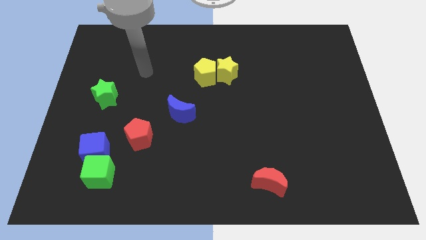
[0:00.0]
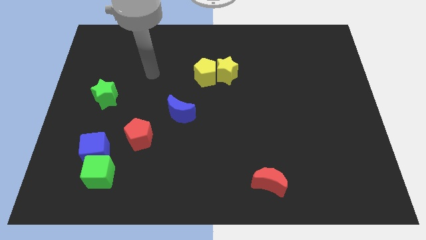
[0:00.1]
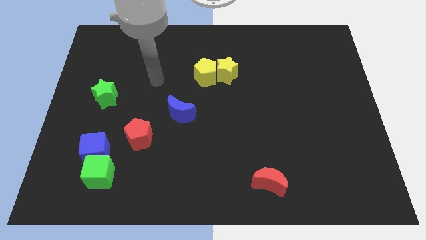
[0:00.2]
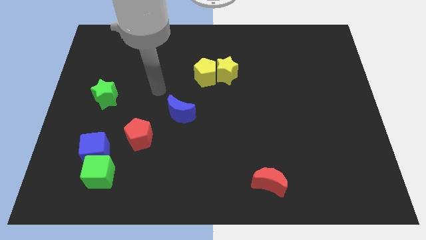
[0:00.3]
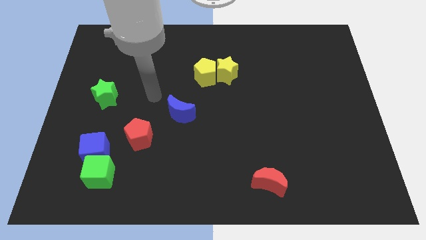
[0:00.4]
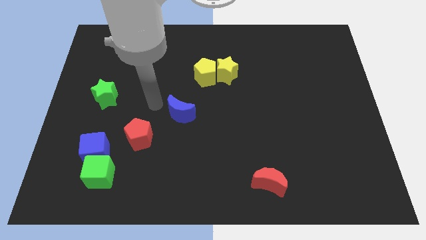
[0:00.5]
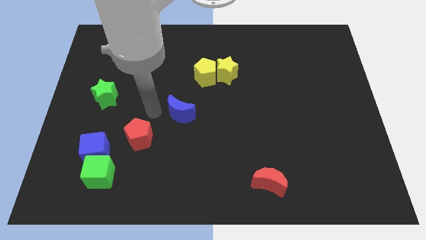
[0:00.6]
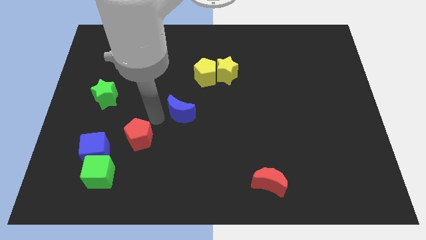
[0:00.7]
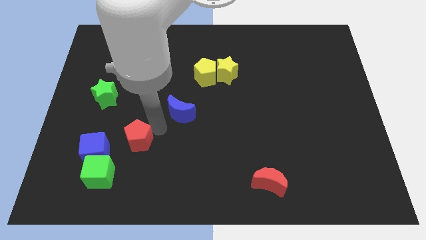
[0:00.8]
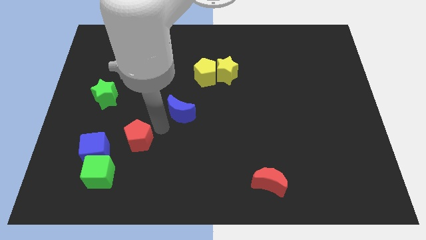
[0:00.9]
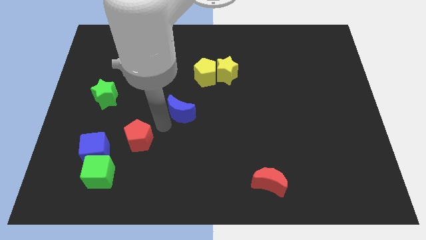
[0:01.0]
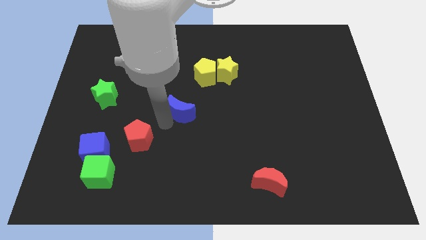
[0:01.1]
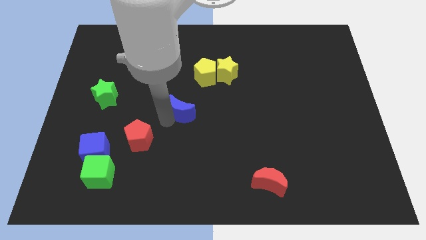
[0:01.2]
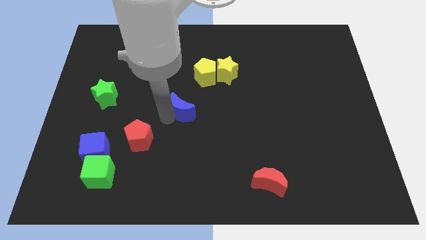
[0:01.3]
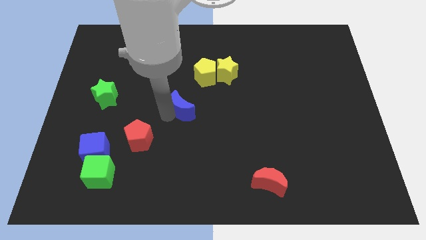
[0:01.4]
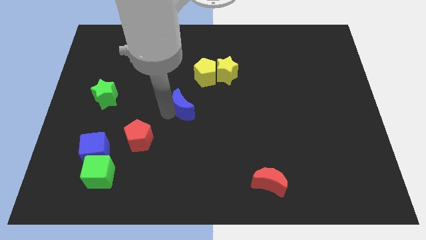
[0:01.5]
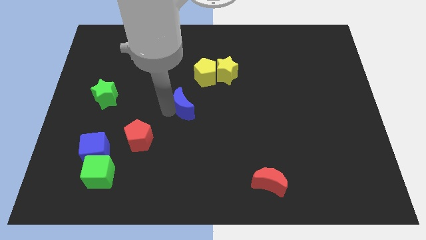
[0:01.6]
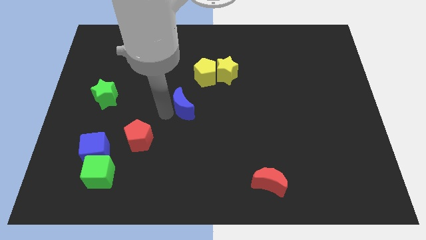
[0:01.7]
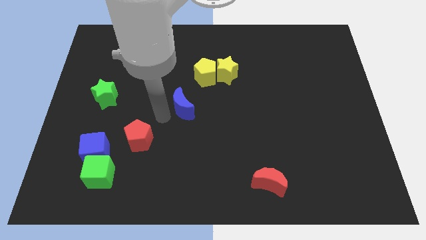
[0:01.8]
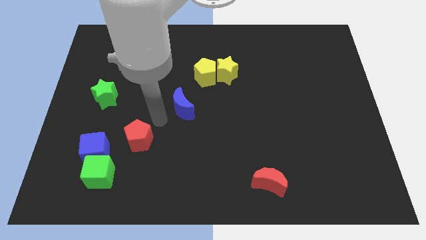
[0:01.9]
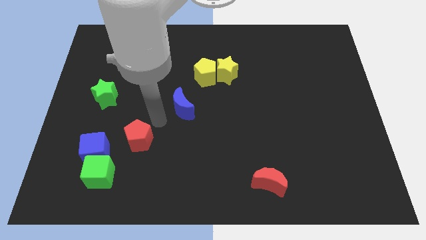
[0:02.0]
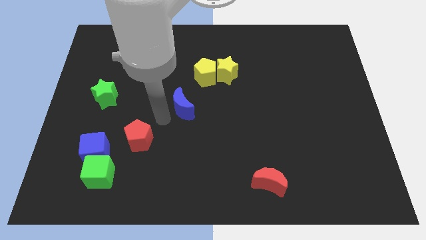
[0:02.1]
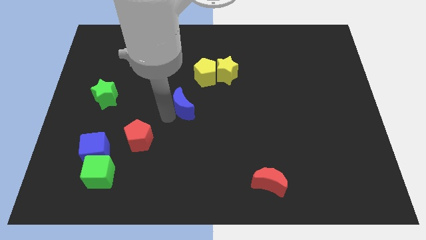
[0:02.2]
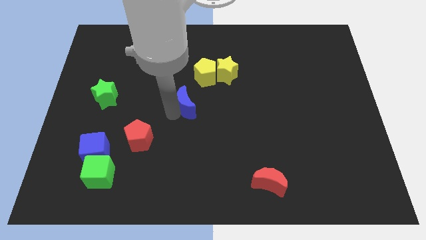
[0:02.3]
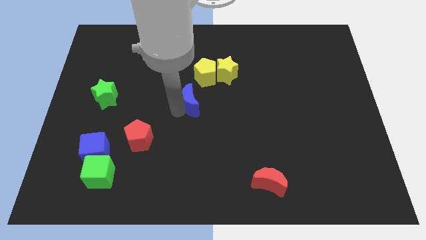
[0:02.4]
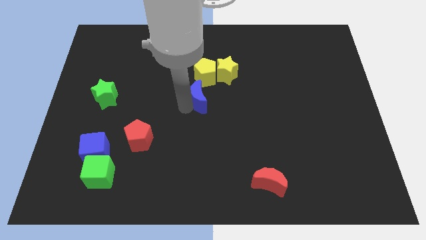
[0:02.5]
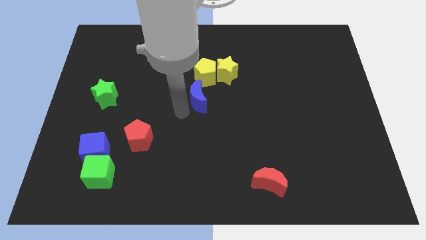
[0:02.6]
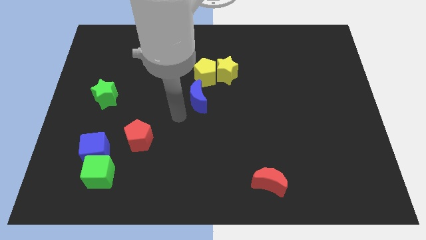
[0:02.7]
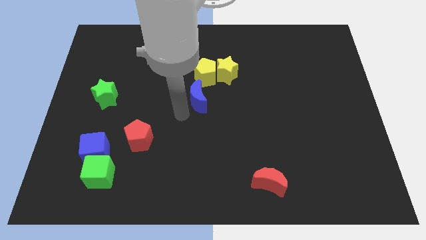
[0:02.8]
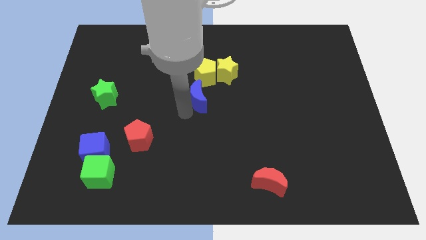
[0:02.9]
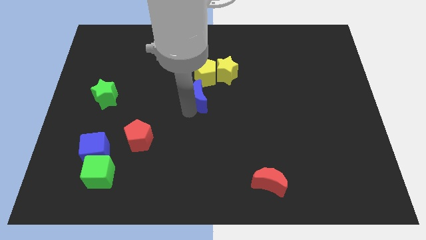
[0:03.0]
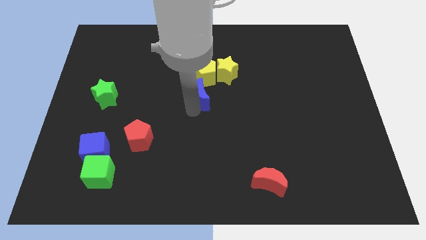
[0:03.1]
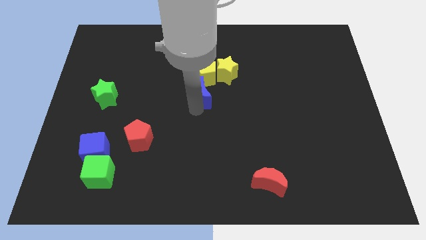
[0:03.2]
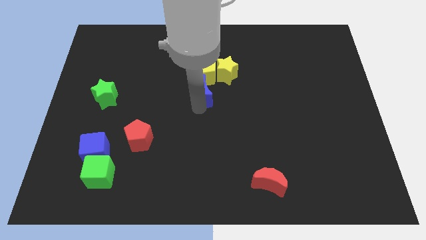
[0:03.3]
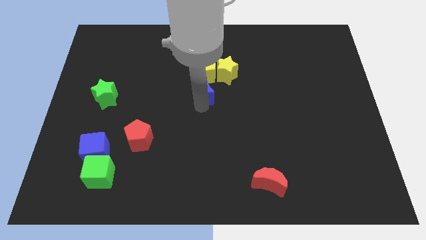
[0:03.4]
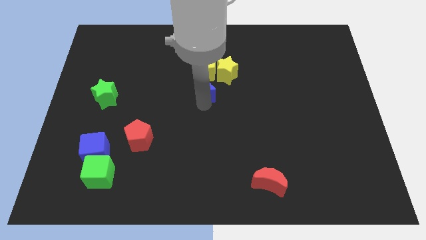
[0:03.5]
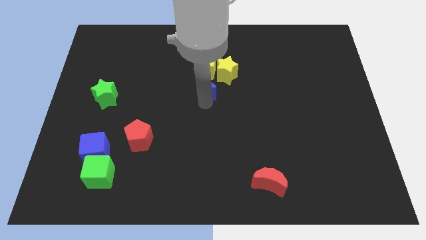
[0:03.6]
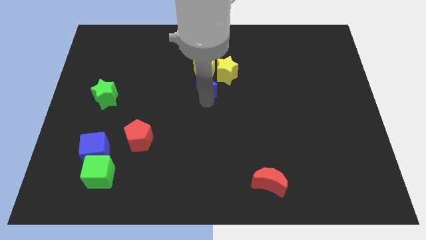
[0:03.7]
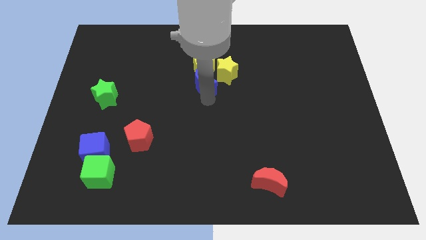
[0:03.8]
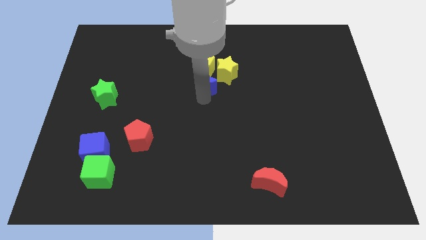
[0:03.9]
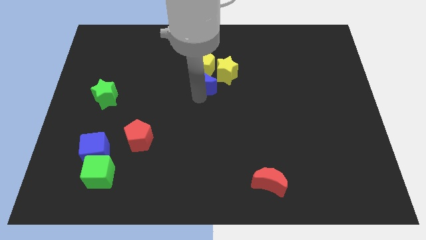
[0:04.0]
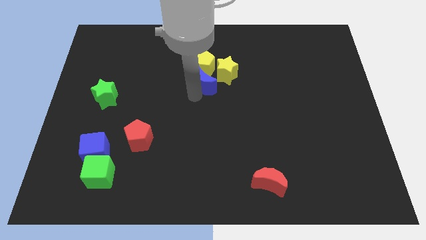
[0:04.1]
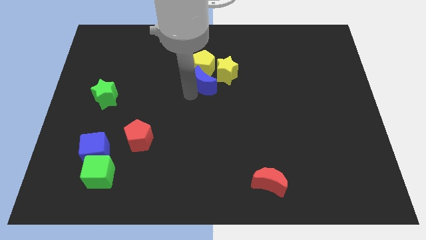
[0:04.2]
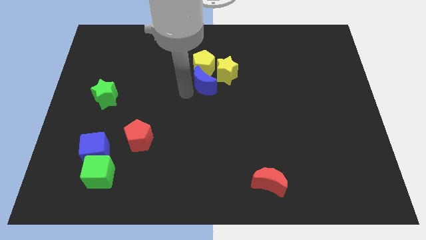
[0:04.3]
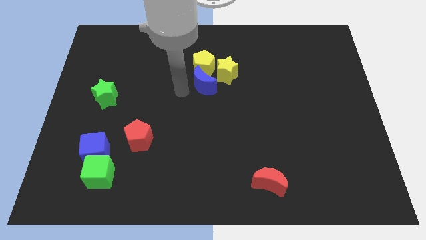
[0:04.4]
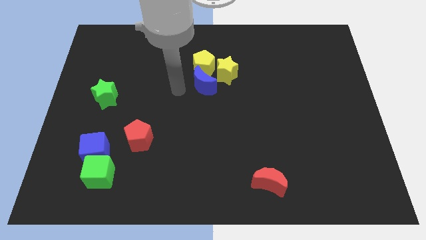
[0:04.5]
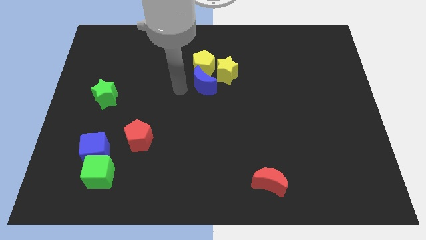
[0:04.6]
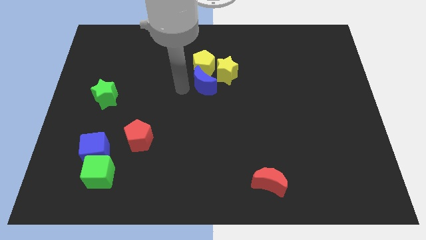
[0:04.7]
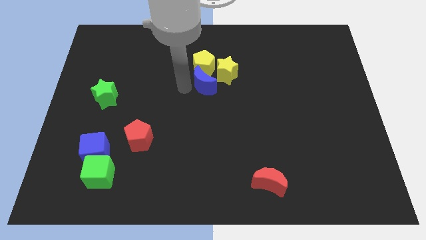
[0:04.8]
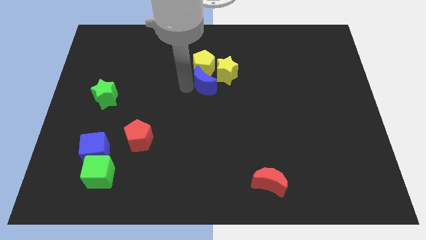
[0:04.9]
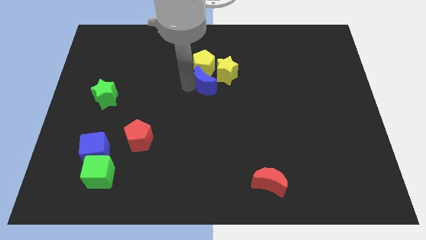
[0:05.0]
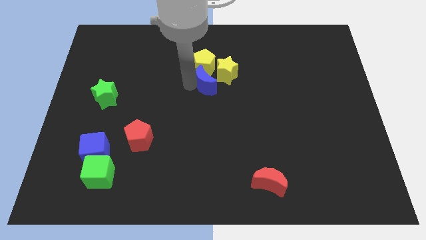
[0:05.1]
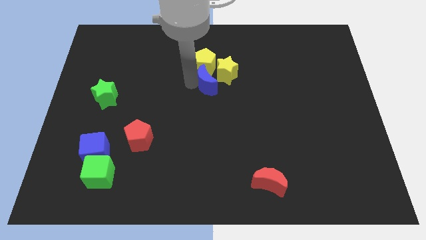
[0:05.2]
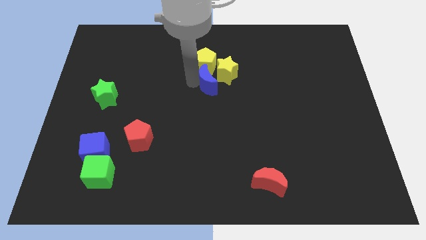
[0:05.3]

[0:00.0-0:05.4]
slide the blue moon towards the yellow star

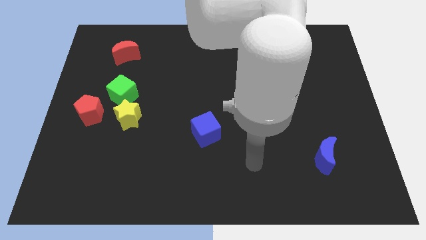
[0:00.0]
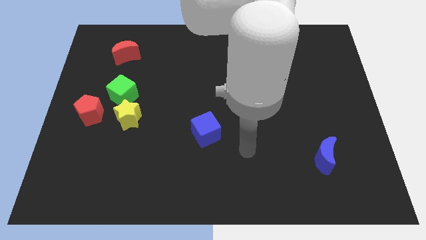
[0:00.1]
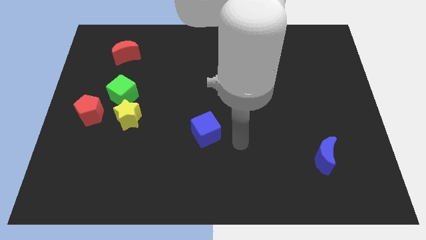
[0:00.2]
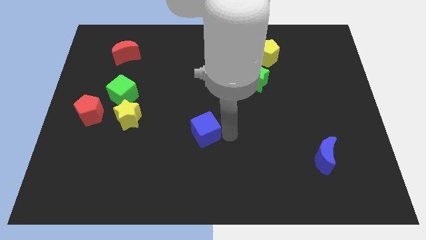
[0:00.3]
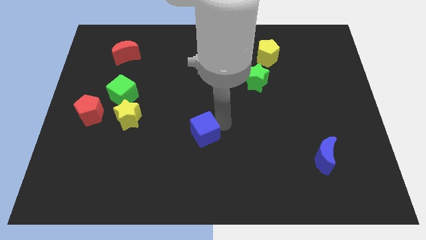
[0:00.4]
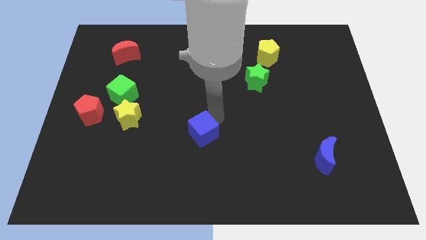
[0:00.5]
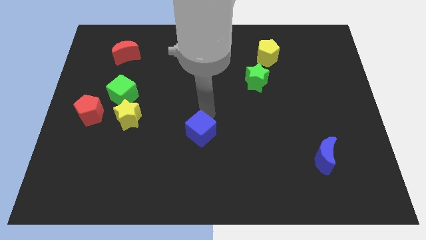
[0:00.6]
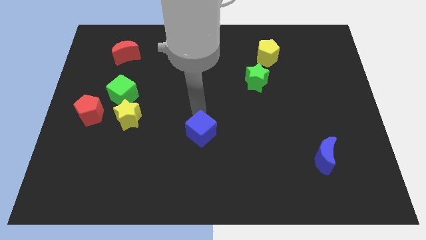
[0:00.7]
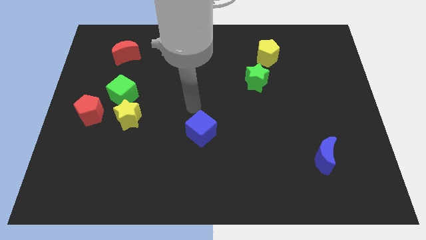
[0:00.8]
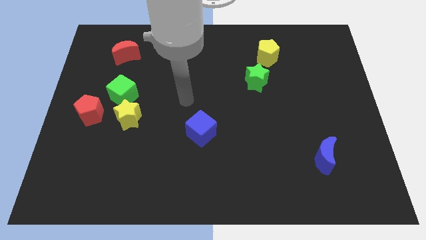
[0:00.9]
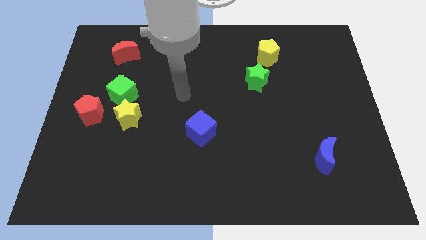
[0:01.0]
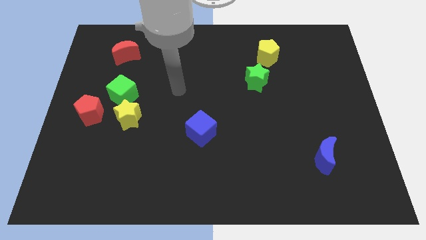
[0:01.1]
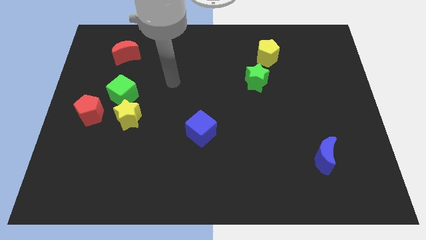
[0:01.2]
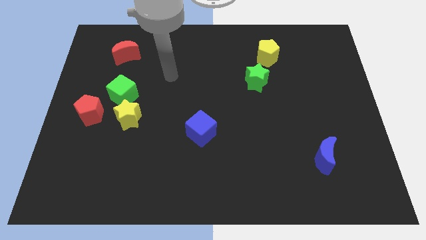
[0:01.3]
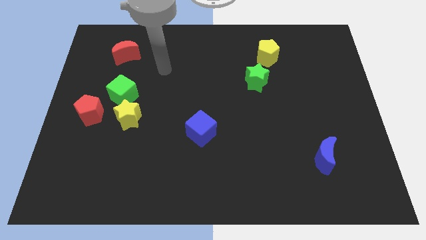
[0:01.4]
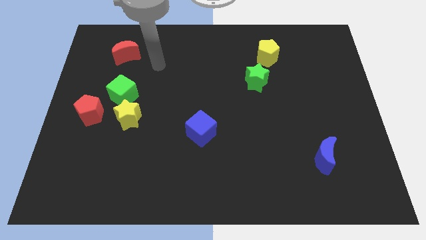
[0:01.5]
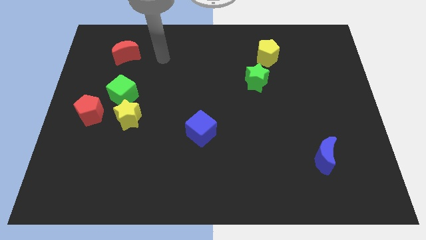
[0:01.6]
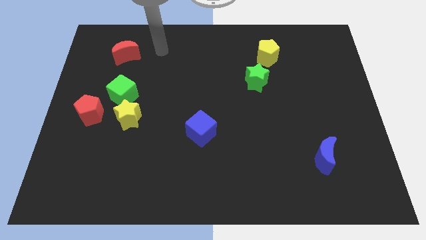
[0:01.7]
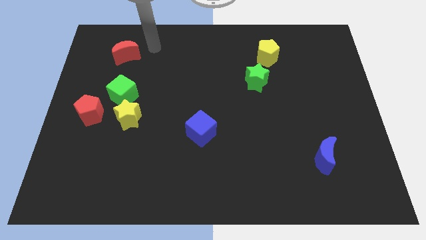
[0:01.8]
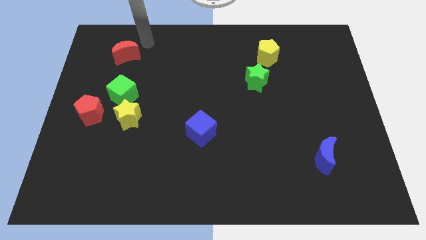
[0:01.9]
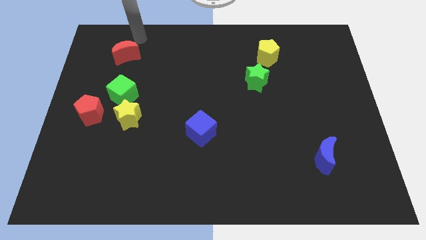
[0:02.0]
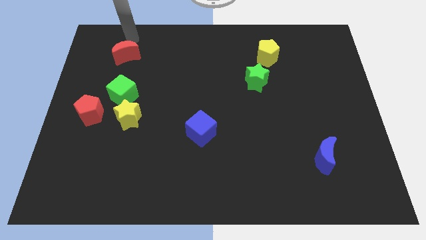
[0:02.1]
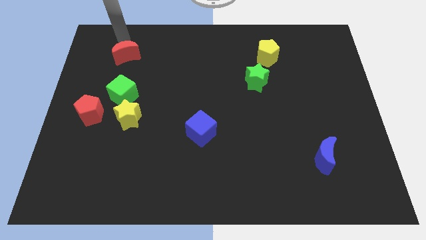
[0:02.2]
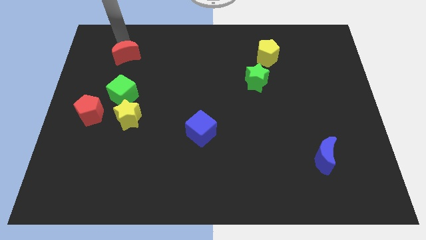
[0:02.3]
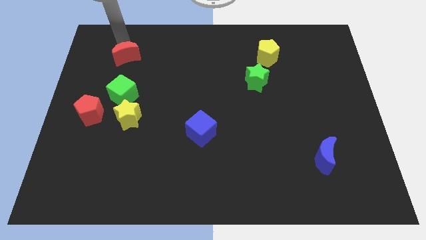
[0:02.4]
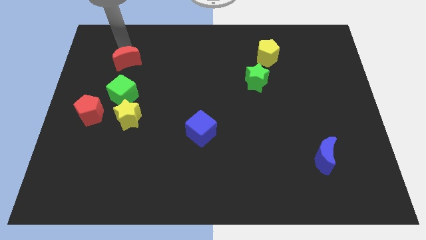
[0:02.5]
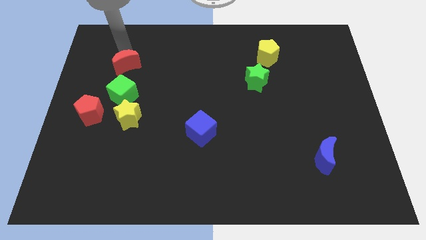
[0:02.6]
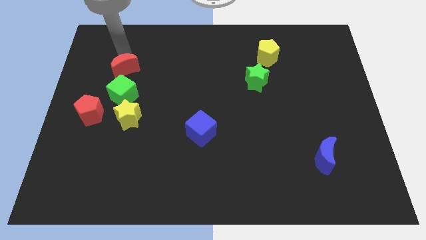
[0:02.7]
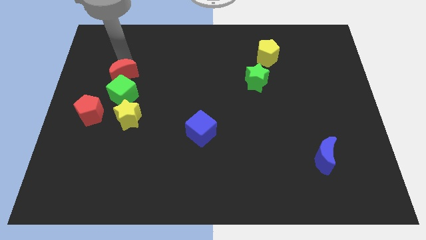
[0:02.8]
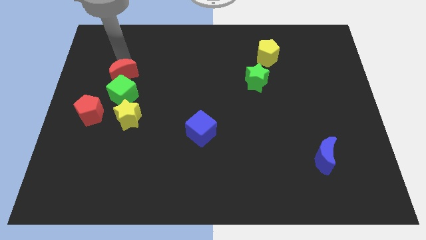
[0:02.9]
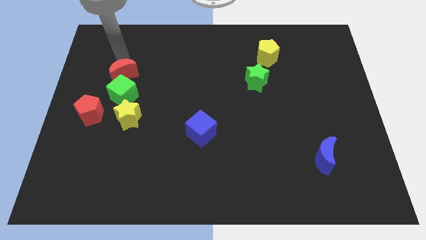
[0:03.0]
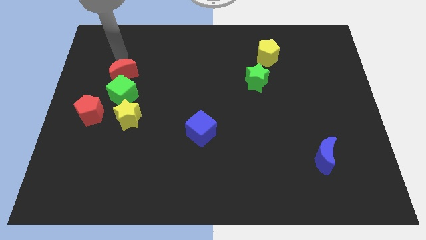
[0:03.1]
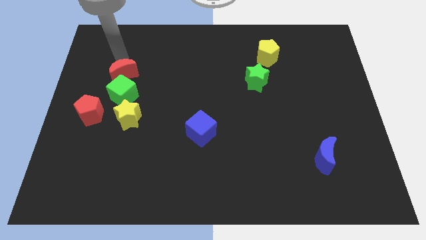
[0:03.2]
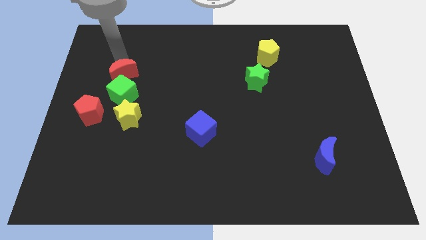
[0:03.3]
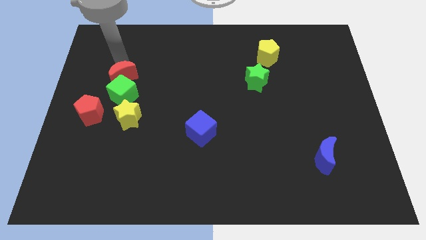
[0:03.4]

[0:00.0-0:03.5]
push the red moon next to the green cube
